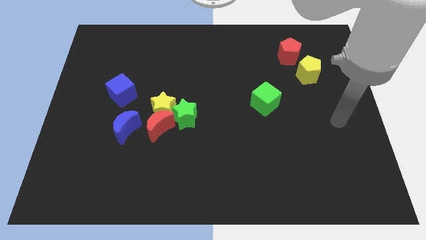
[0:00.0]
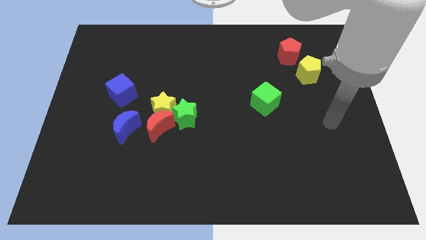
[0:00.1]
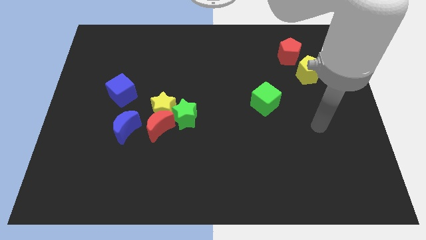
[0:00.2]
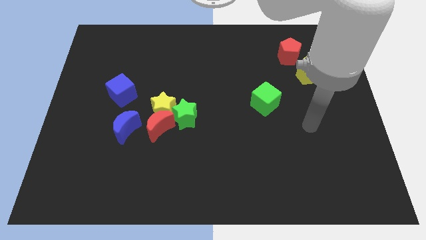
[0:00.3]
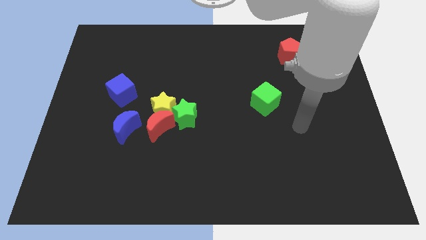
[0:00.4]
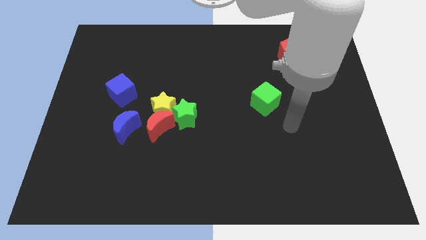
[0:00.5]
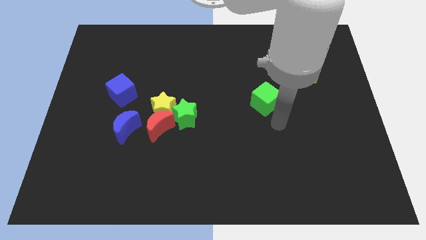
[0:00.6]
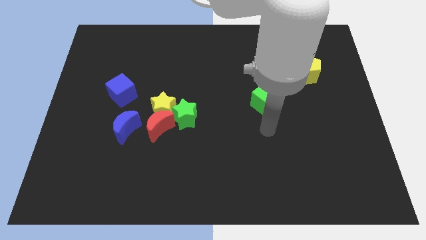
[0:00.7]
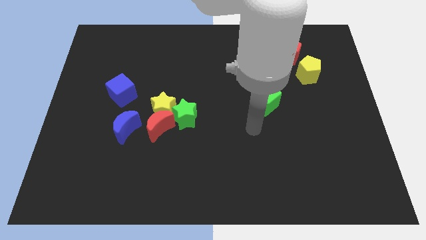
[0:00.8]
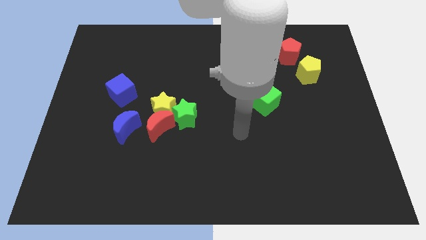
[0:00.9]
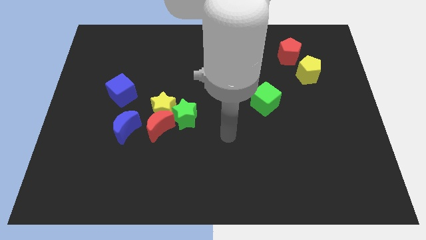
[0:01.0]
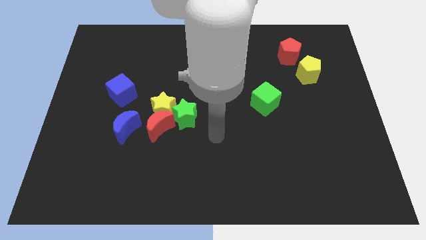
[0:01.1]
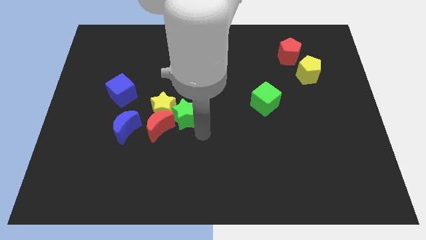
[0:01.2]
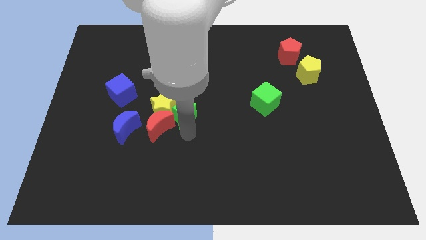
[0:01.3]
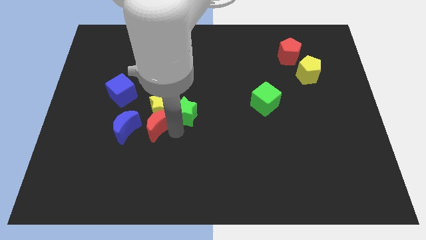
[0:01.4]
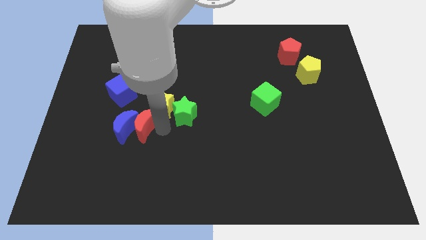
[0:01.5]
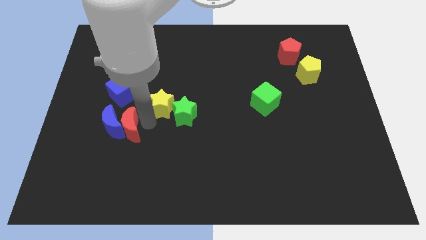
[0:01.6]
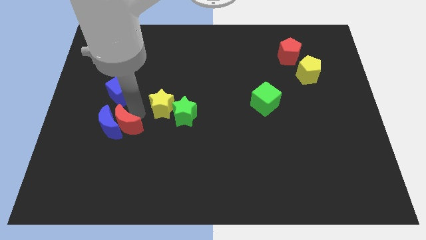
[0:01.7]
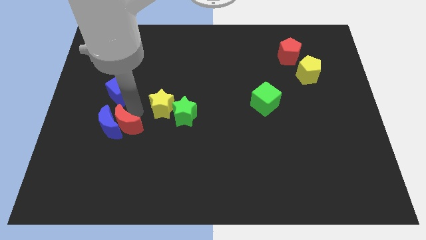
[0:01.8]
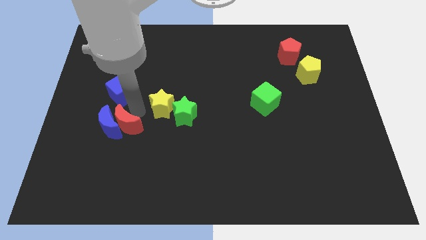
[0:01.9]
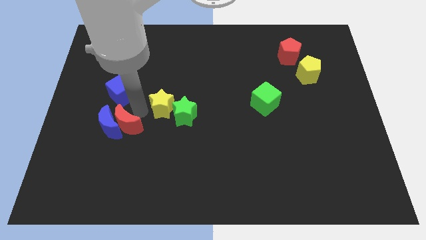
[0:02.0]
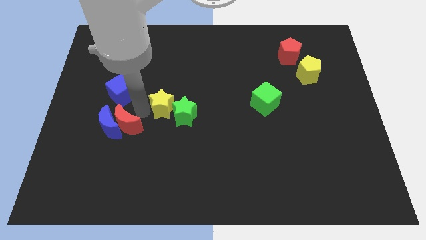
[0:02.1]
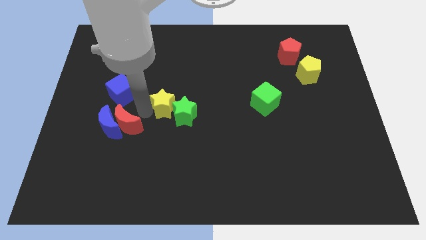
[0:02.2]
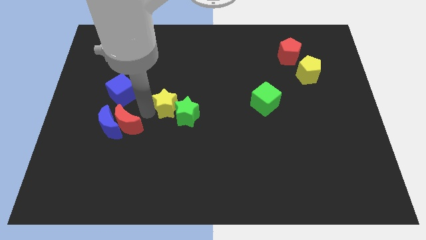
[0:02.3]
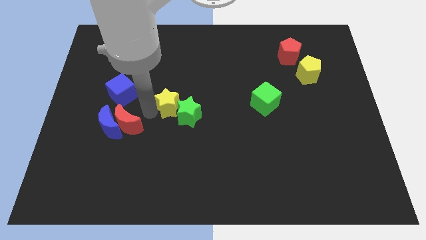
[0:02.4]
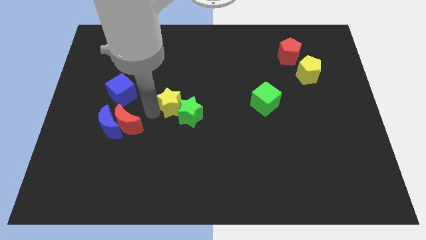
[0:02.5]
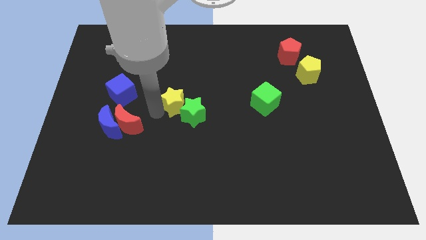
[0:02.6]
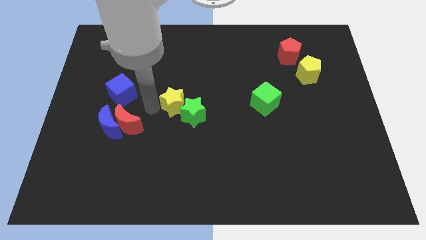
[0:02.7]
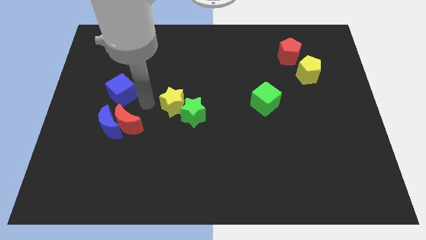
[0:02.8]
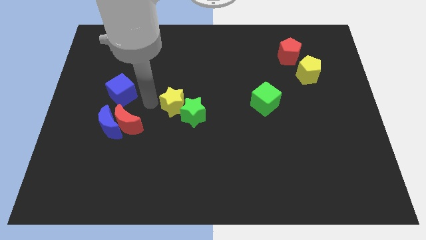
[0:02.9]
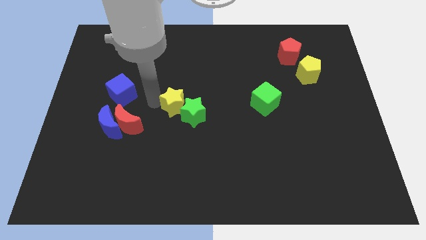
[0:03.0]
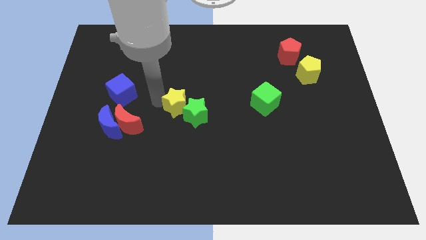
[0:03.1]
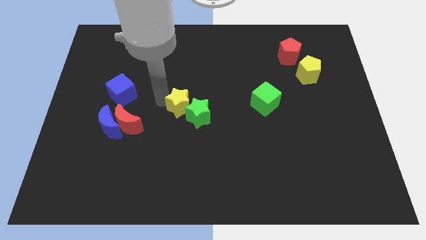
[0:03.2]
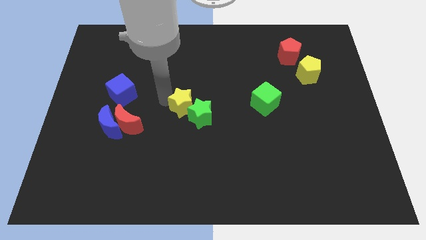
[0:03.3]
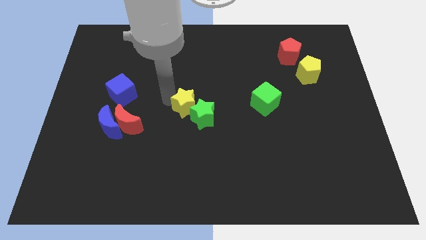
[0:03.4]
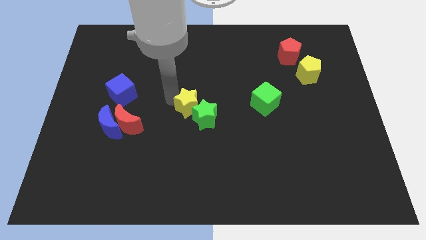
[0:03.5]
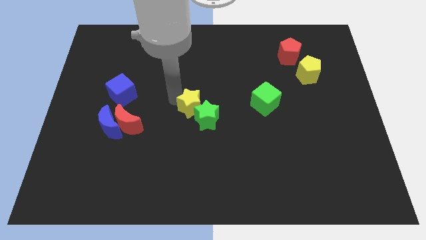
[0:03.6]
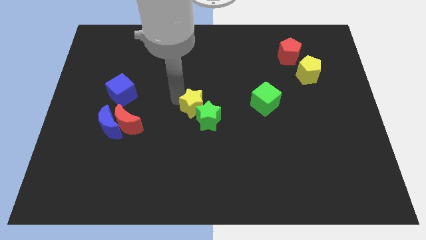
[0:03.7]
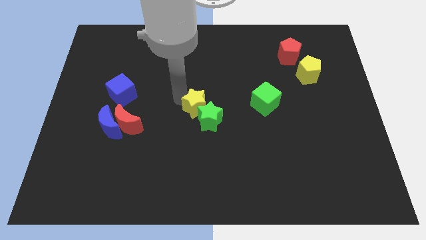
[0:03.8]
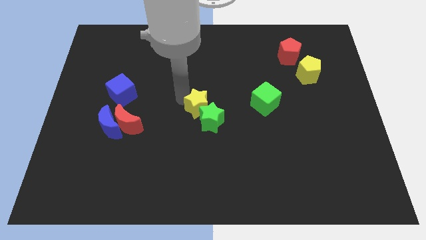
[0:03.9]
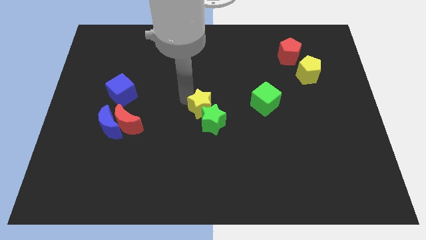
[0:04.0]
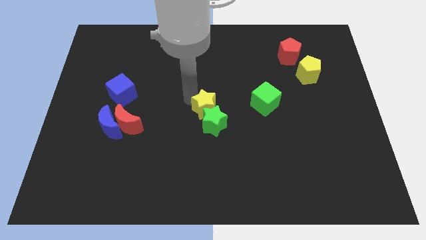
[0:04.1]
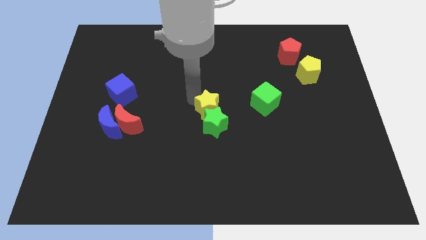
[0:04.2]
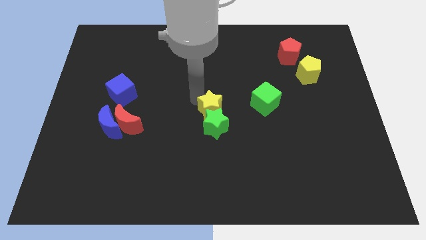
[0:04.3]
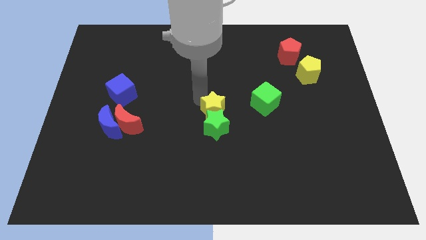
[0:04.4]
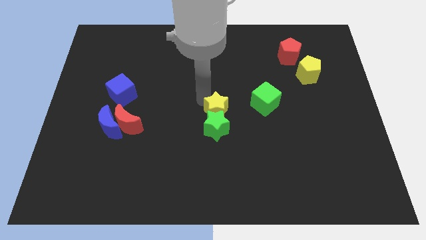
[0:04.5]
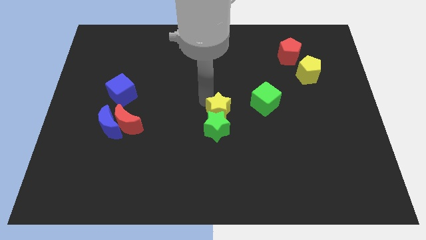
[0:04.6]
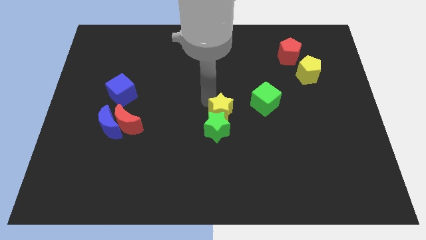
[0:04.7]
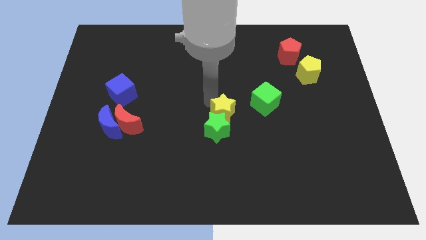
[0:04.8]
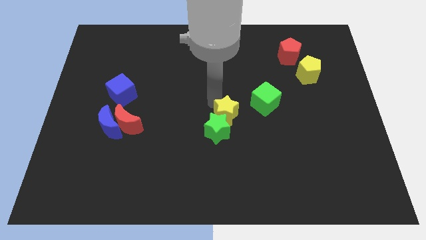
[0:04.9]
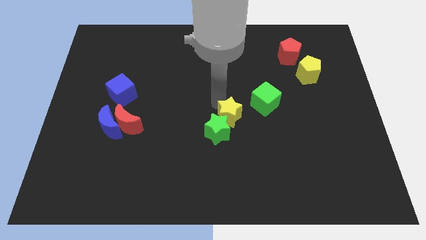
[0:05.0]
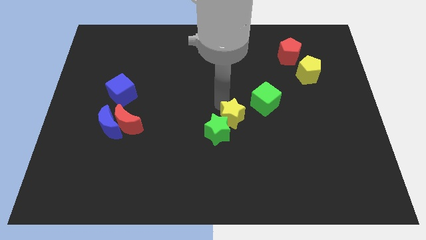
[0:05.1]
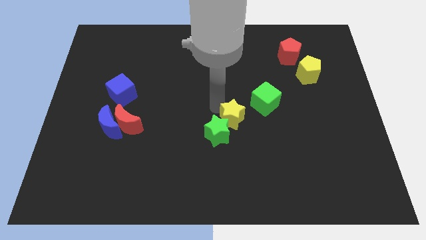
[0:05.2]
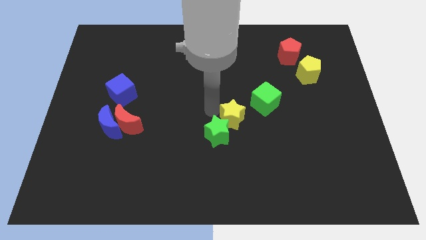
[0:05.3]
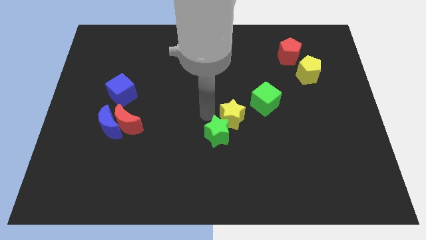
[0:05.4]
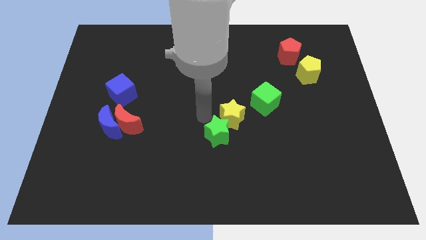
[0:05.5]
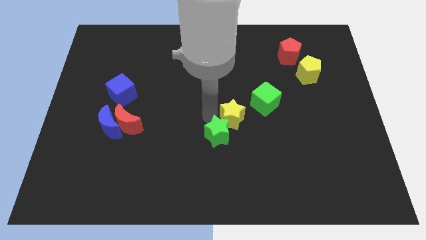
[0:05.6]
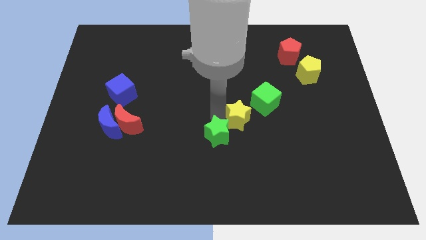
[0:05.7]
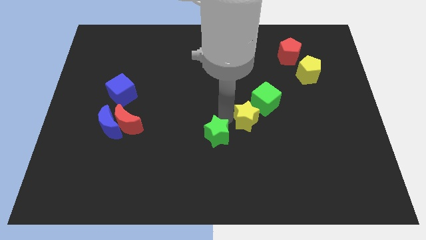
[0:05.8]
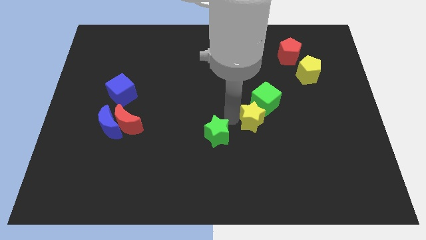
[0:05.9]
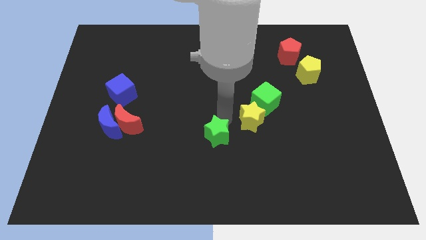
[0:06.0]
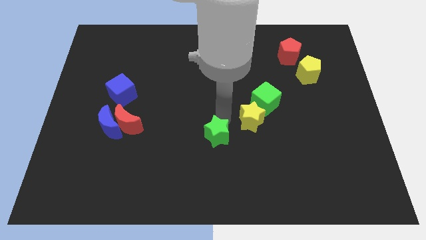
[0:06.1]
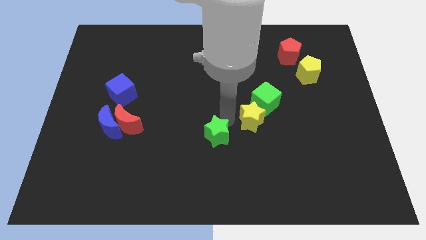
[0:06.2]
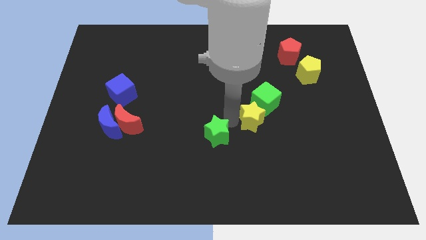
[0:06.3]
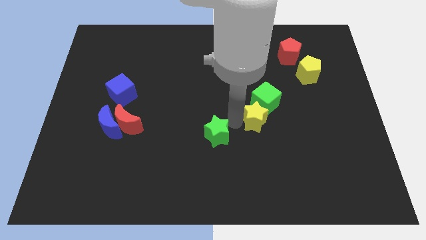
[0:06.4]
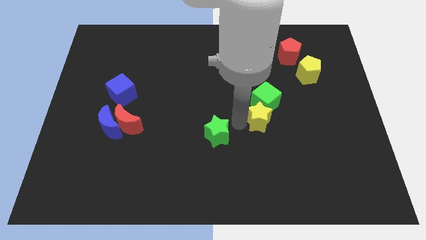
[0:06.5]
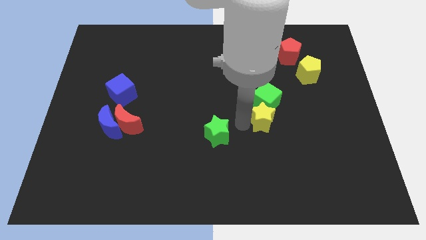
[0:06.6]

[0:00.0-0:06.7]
slide the yellow star to the bottom right side of the green cube
